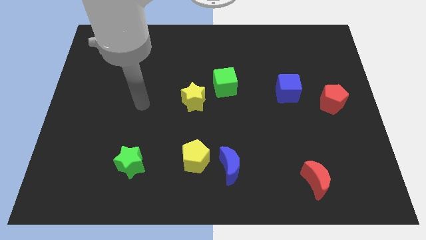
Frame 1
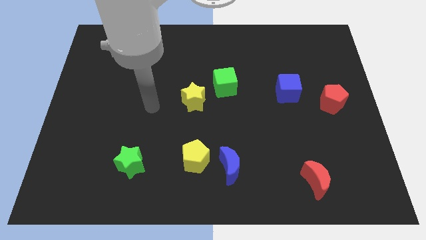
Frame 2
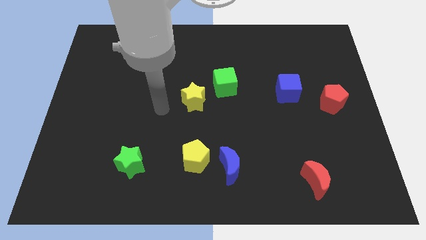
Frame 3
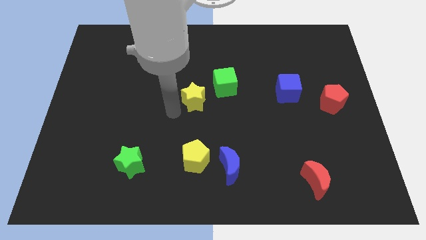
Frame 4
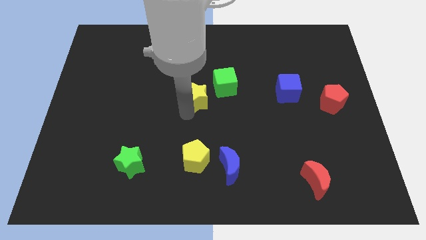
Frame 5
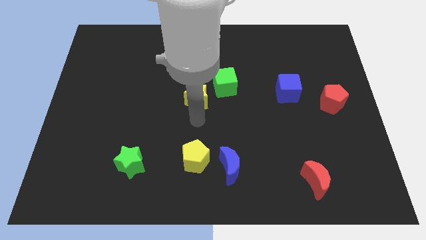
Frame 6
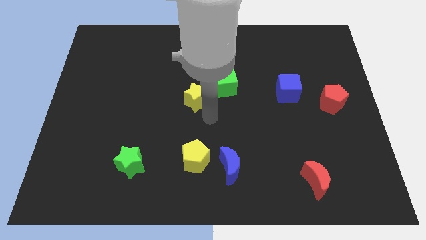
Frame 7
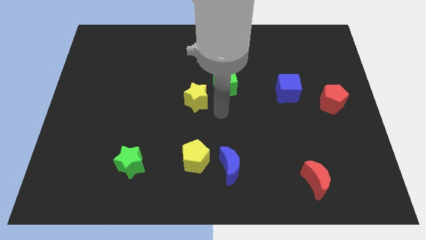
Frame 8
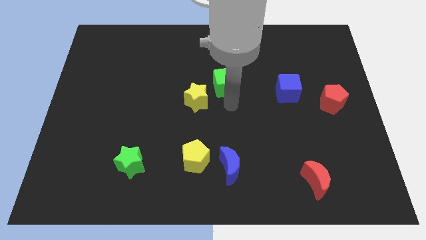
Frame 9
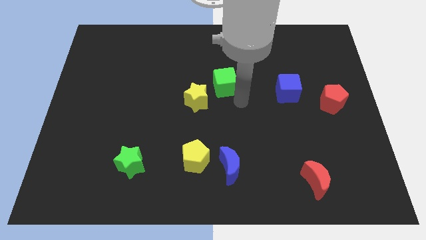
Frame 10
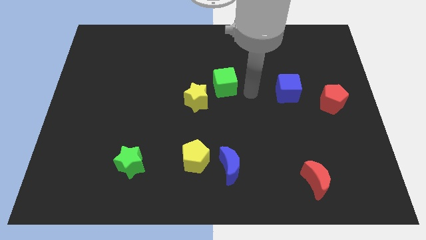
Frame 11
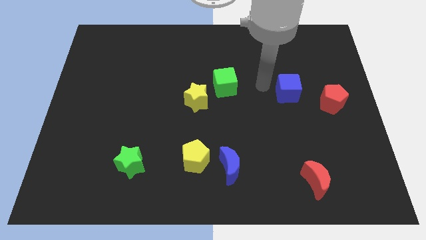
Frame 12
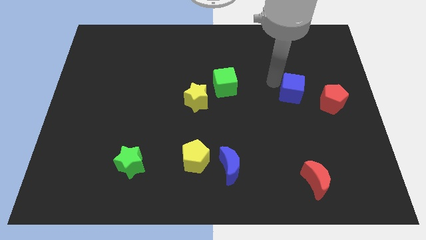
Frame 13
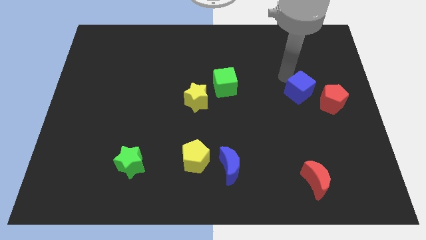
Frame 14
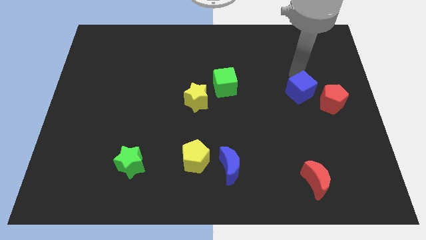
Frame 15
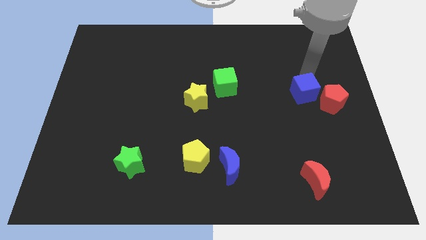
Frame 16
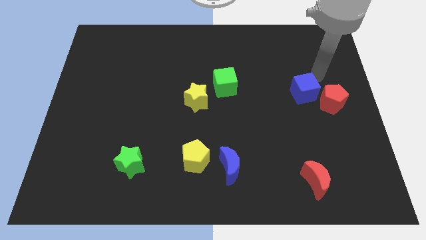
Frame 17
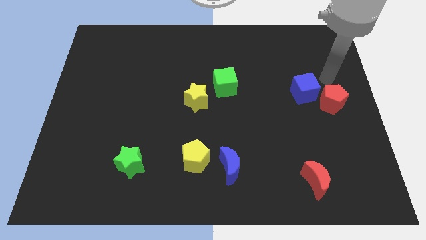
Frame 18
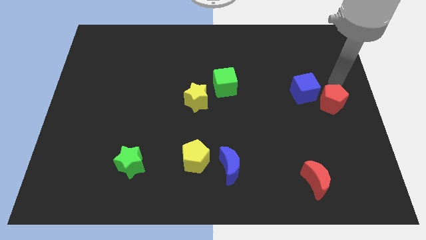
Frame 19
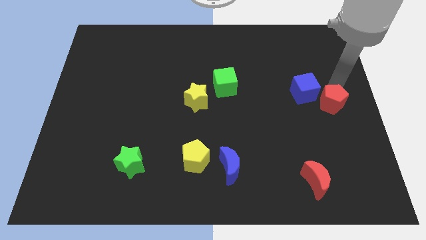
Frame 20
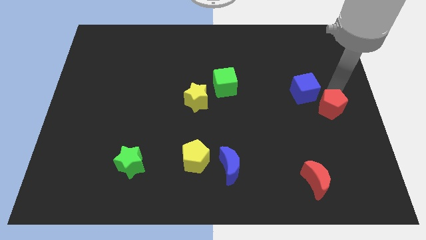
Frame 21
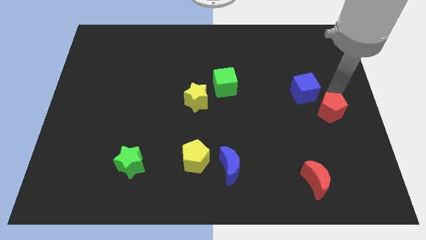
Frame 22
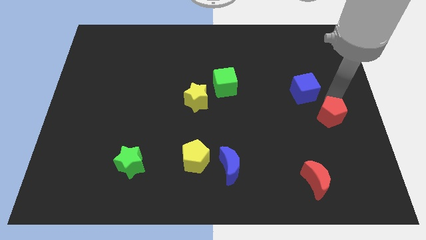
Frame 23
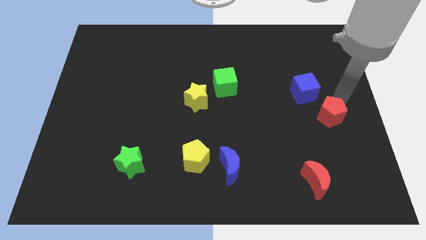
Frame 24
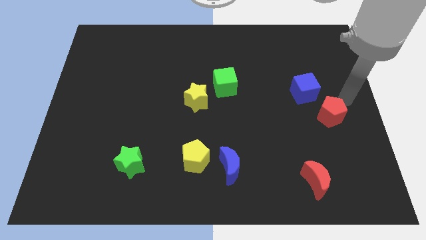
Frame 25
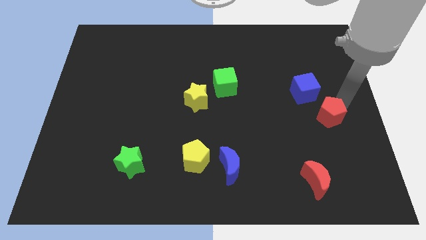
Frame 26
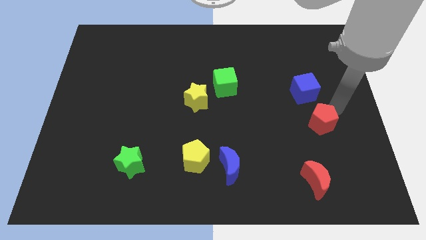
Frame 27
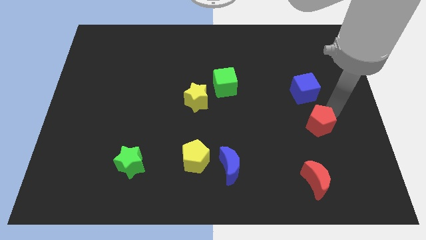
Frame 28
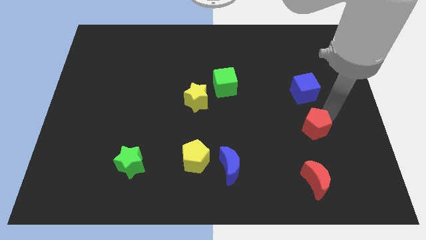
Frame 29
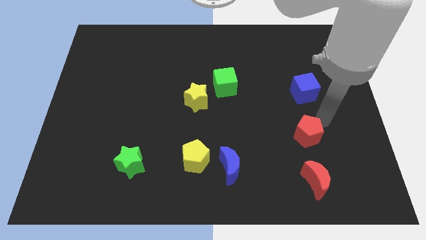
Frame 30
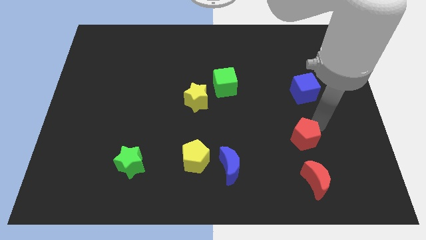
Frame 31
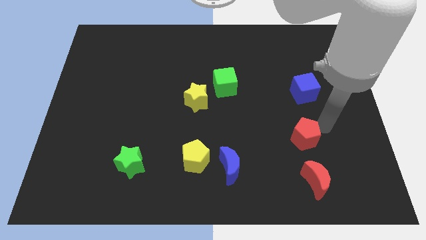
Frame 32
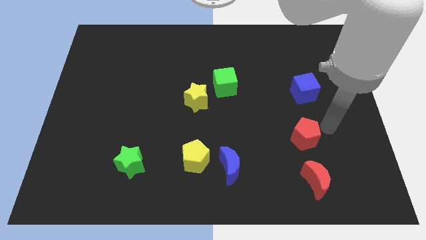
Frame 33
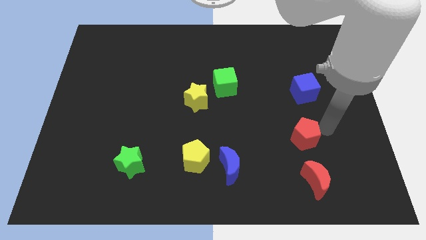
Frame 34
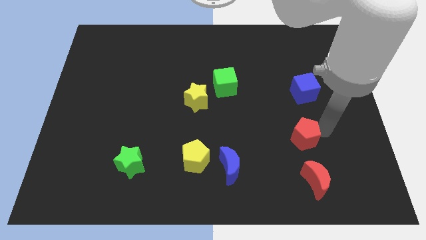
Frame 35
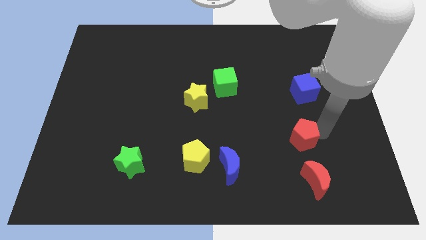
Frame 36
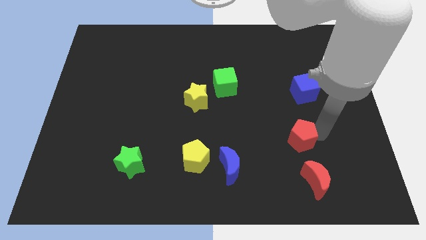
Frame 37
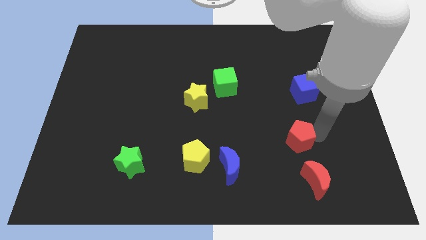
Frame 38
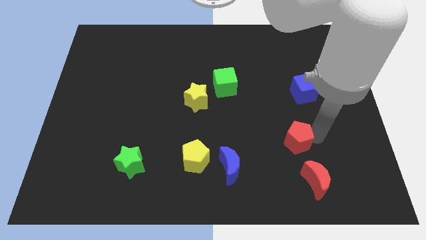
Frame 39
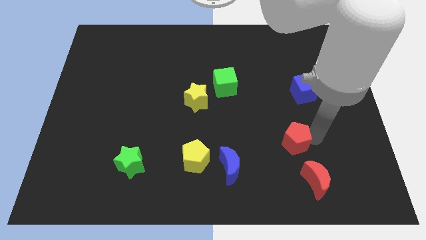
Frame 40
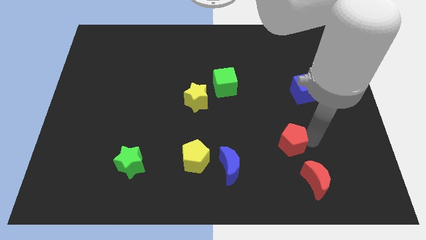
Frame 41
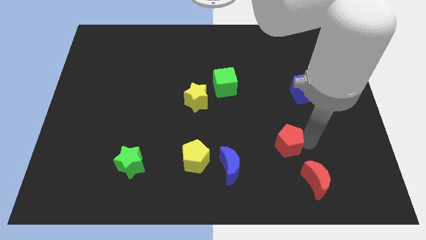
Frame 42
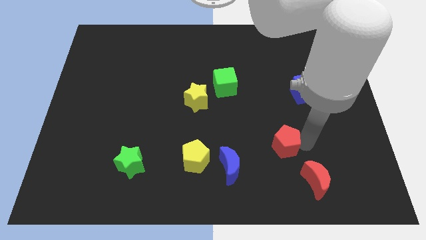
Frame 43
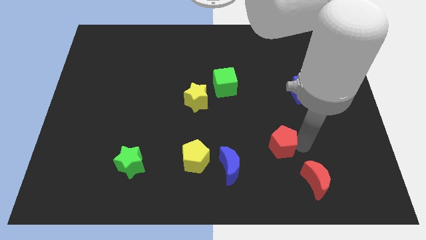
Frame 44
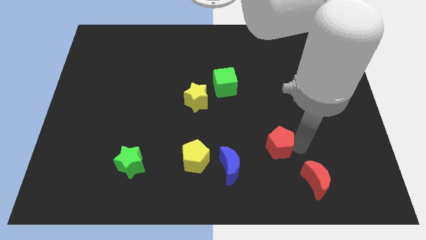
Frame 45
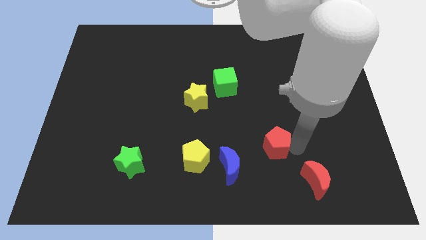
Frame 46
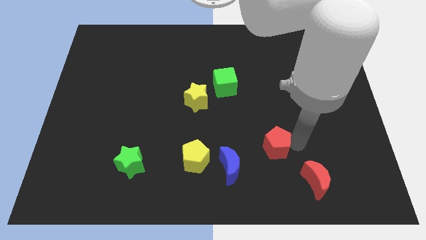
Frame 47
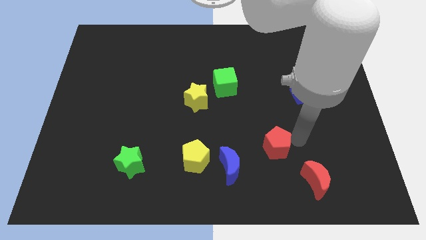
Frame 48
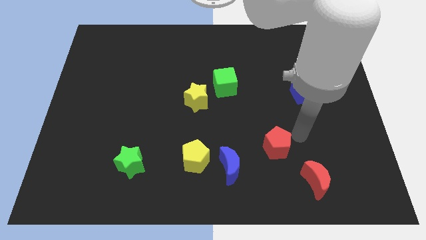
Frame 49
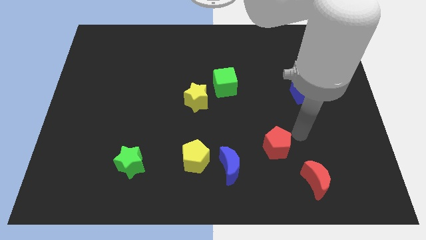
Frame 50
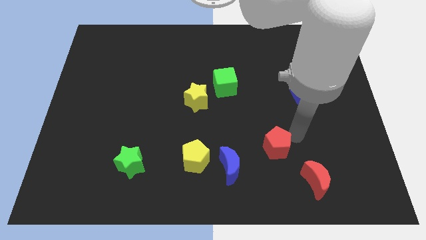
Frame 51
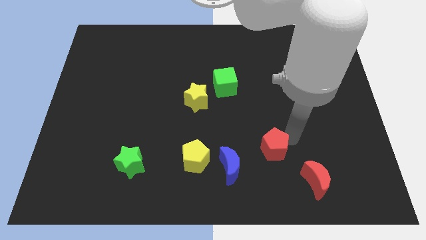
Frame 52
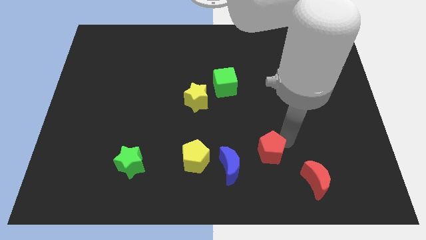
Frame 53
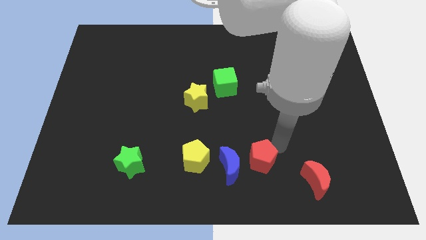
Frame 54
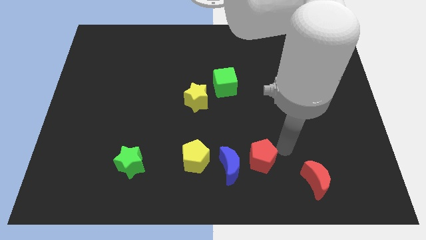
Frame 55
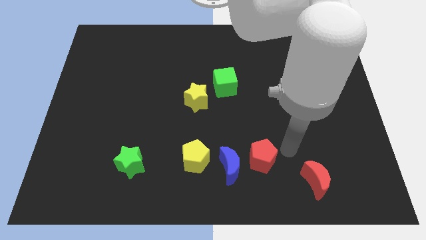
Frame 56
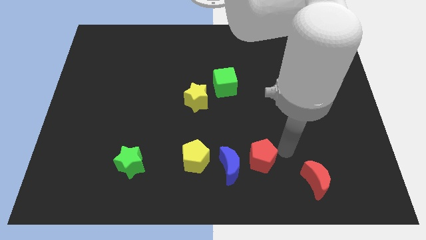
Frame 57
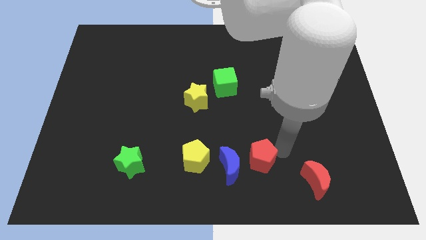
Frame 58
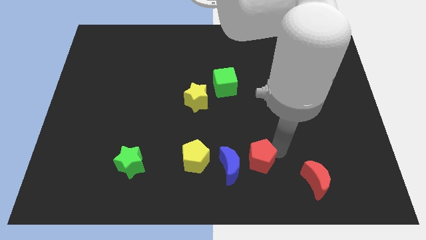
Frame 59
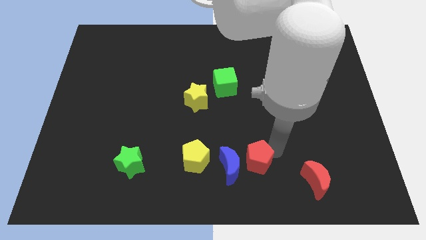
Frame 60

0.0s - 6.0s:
push the red pentagon close to the blue moon

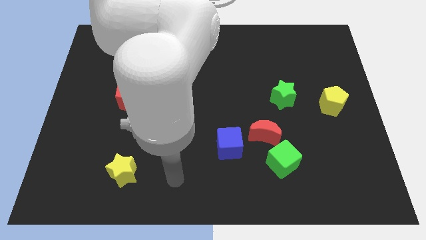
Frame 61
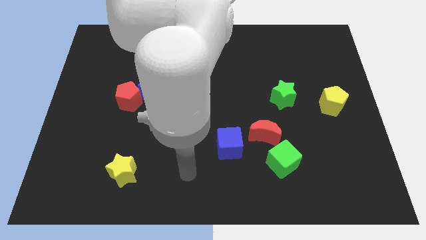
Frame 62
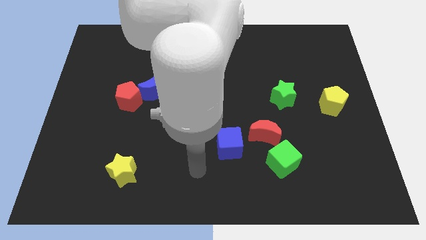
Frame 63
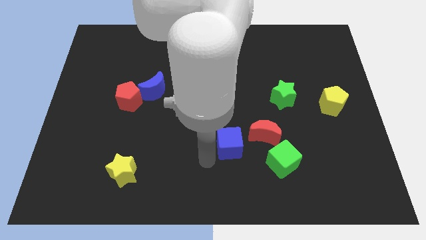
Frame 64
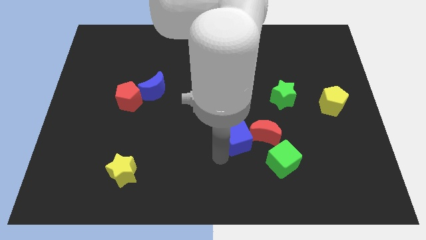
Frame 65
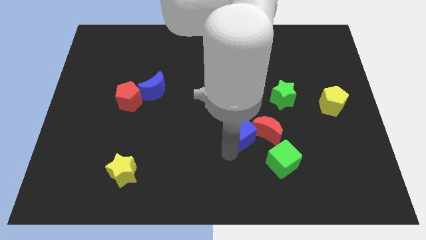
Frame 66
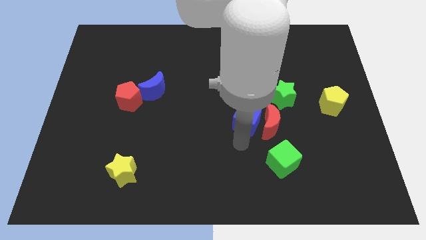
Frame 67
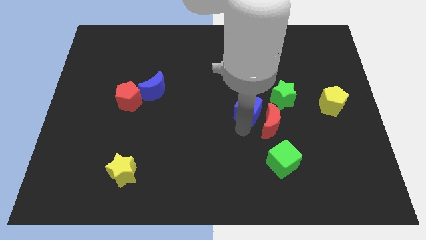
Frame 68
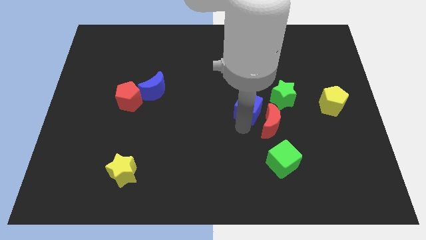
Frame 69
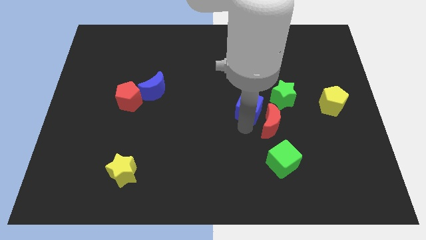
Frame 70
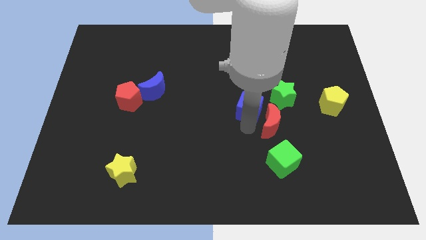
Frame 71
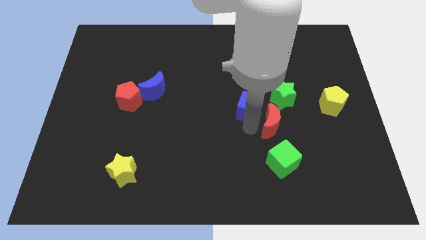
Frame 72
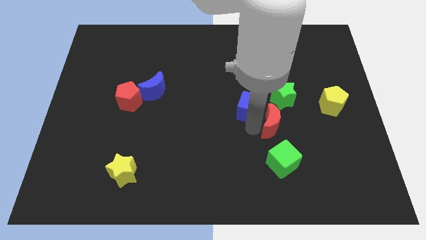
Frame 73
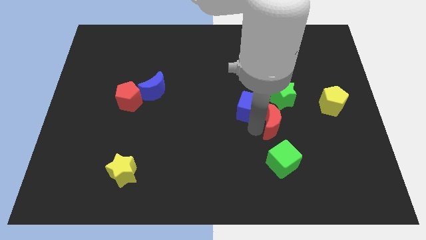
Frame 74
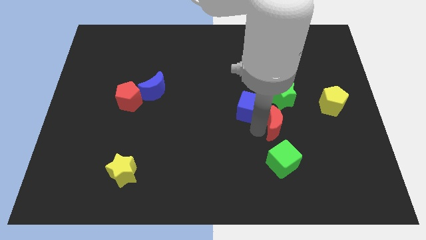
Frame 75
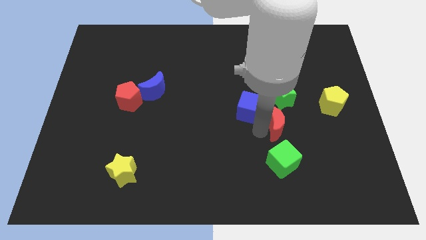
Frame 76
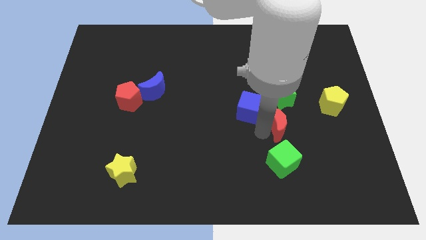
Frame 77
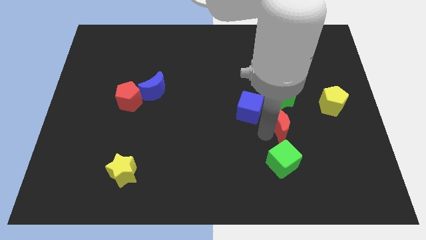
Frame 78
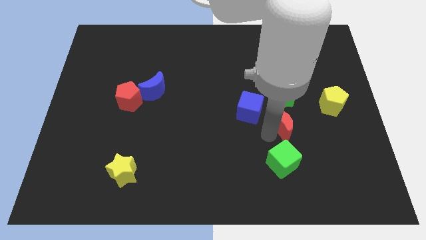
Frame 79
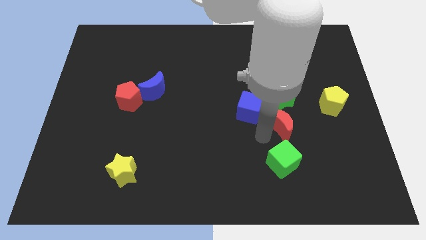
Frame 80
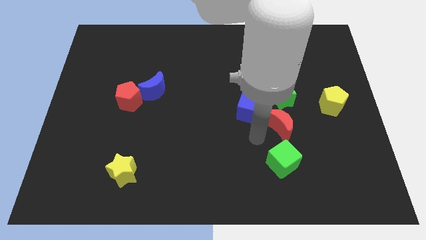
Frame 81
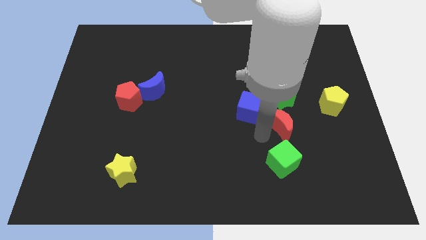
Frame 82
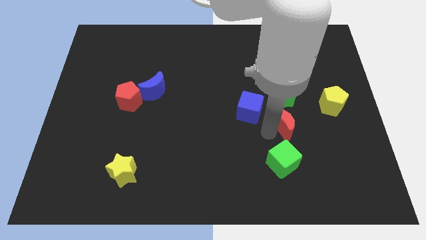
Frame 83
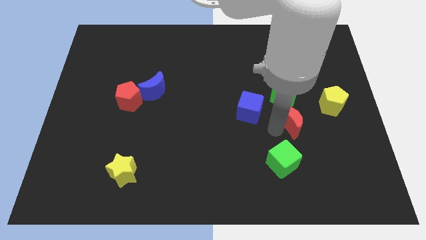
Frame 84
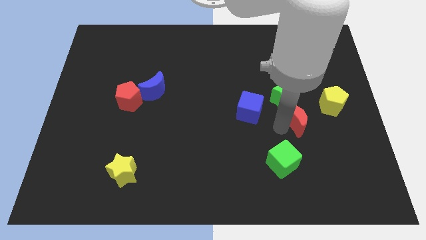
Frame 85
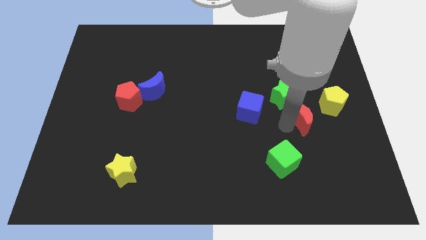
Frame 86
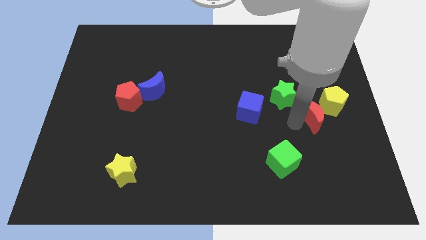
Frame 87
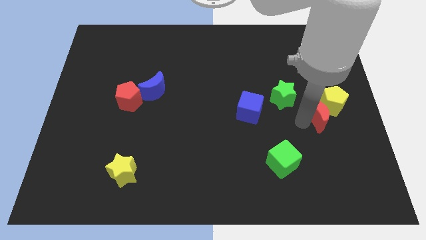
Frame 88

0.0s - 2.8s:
move the red moon to the yellow pentagon
